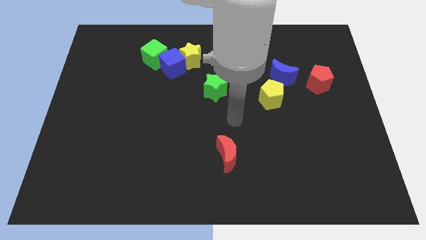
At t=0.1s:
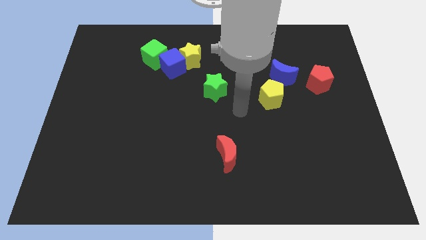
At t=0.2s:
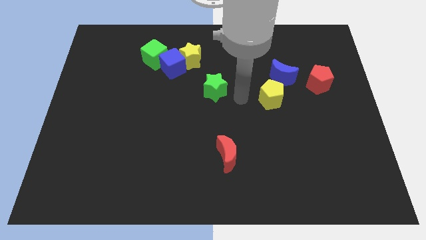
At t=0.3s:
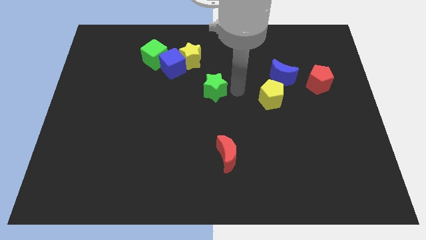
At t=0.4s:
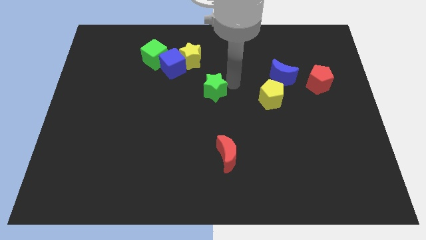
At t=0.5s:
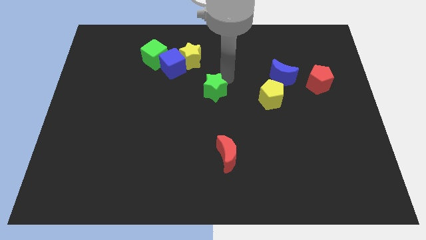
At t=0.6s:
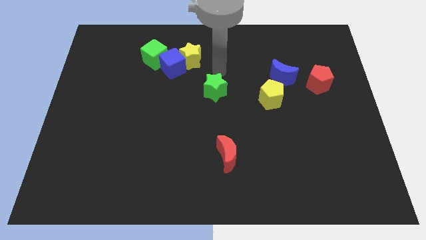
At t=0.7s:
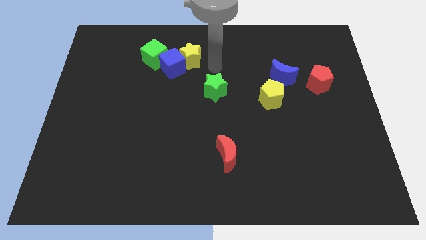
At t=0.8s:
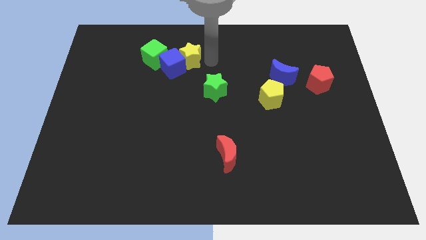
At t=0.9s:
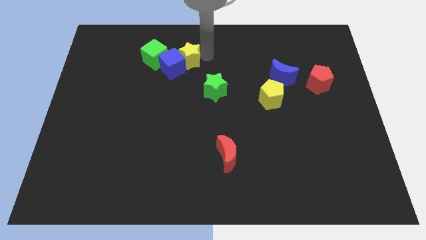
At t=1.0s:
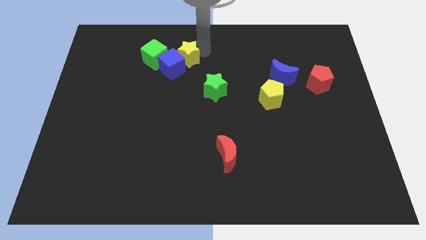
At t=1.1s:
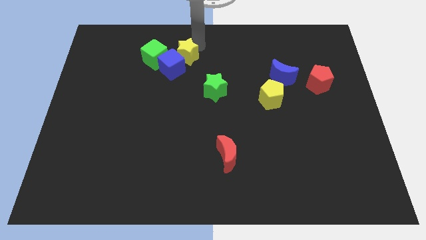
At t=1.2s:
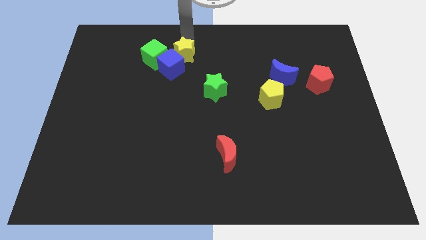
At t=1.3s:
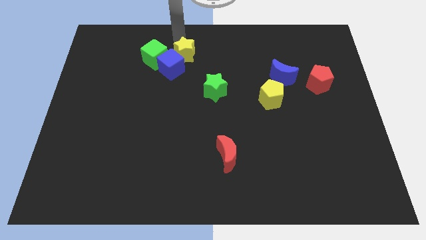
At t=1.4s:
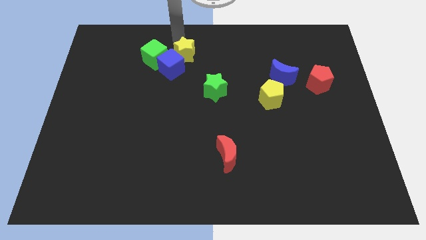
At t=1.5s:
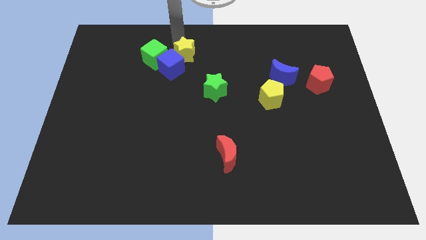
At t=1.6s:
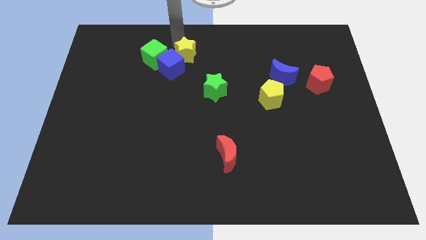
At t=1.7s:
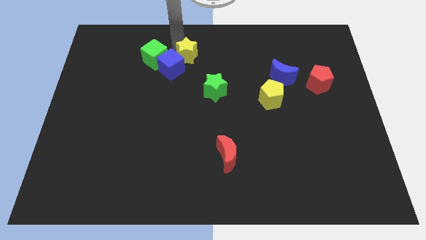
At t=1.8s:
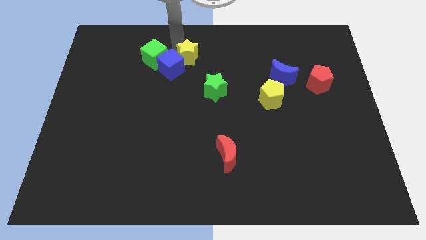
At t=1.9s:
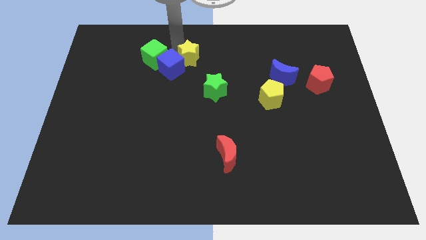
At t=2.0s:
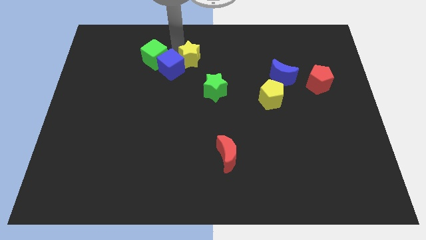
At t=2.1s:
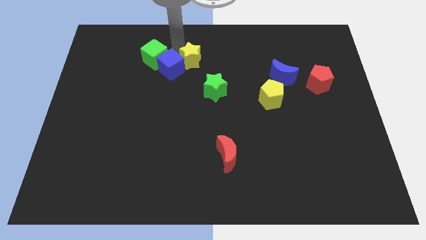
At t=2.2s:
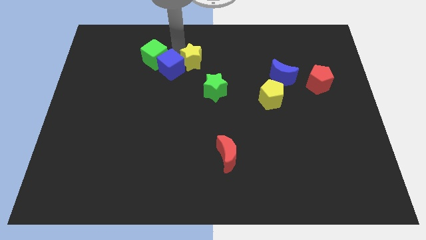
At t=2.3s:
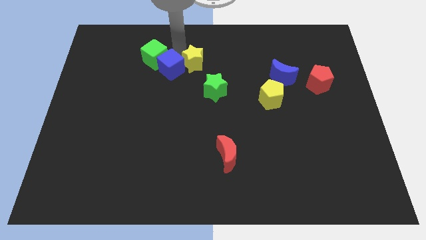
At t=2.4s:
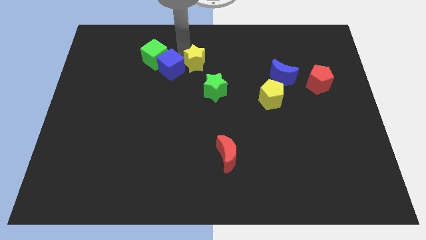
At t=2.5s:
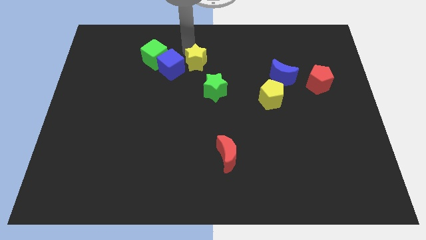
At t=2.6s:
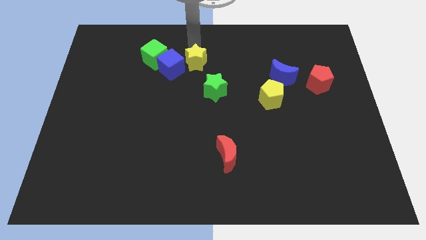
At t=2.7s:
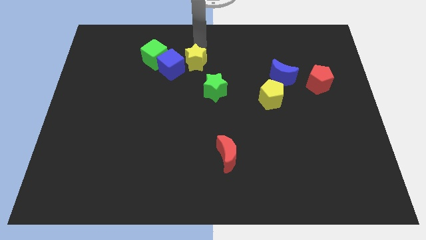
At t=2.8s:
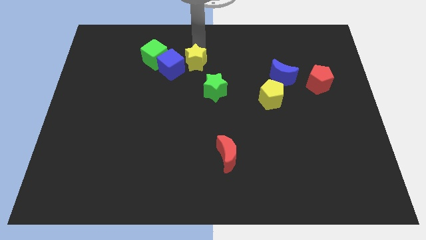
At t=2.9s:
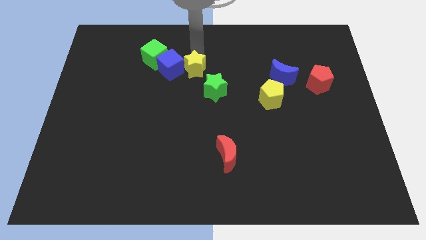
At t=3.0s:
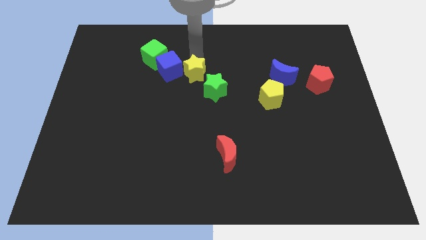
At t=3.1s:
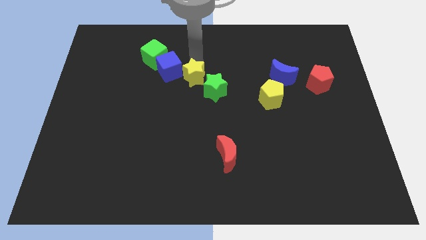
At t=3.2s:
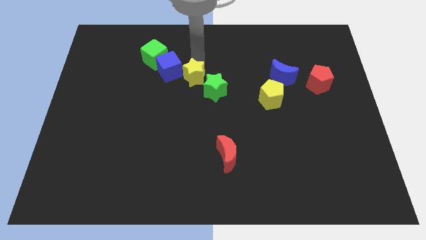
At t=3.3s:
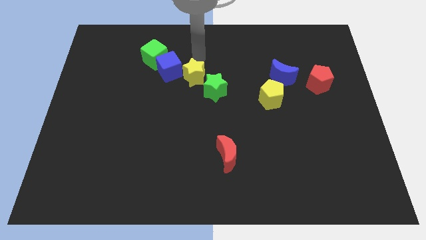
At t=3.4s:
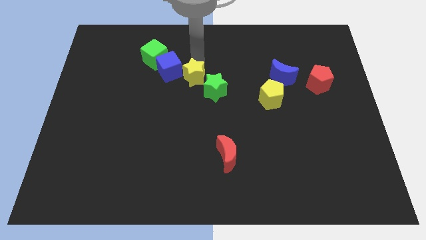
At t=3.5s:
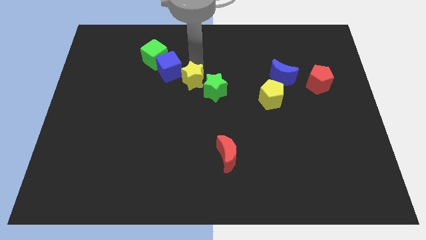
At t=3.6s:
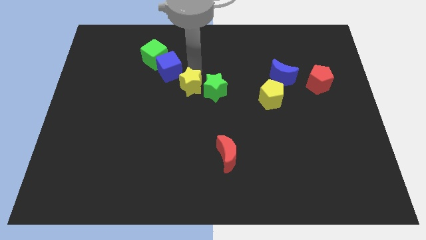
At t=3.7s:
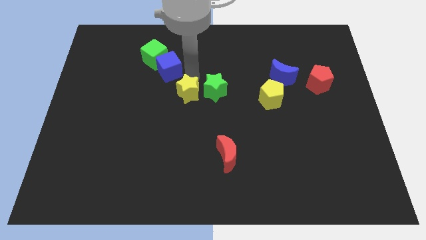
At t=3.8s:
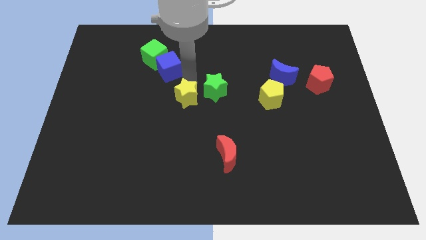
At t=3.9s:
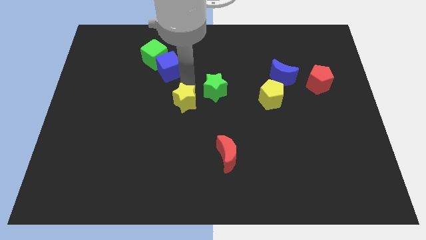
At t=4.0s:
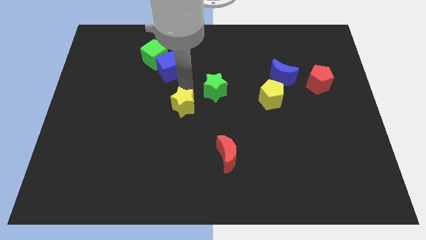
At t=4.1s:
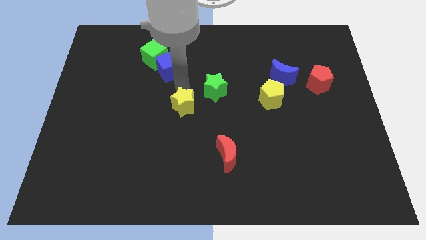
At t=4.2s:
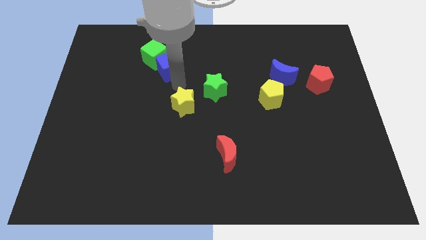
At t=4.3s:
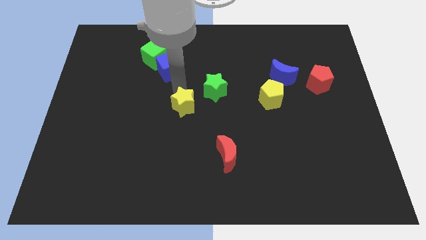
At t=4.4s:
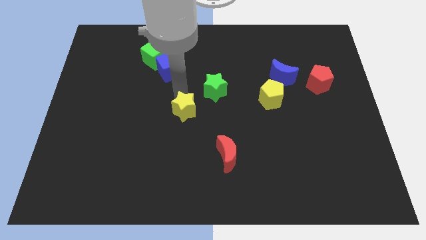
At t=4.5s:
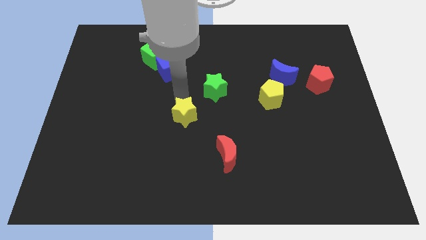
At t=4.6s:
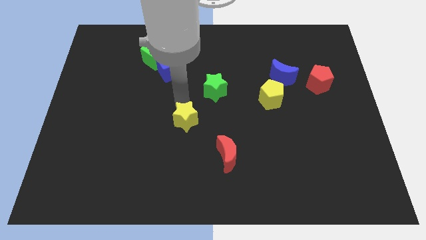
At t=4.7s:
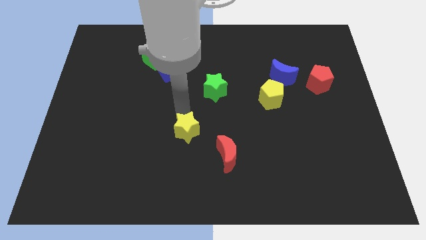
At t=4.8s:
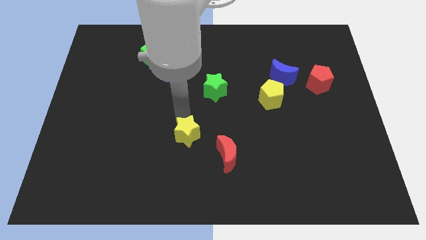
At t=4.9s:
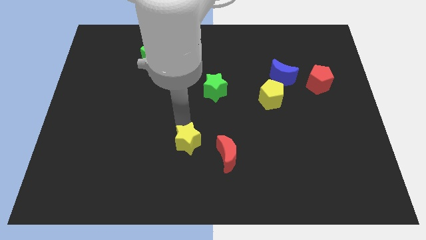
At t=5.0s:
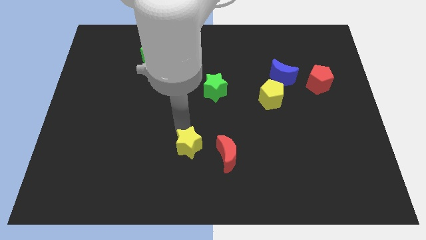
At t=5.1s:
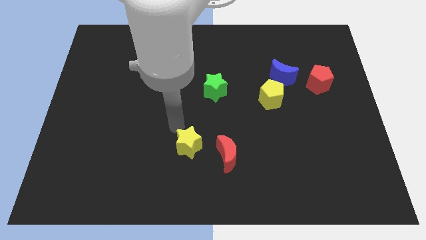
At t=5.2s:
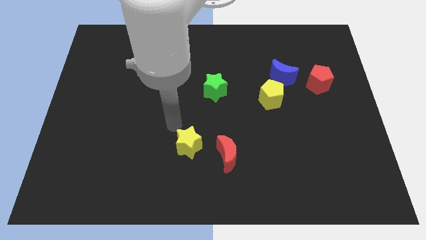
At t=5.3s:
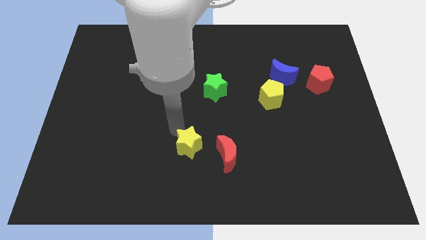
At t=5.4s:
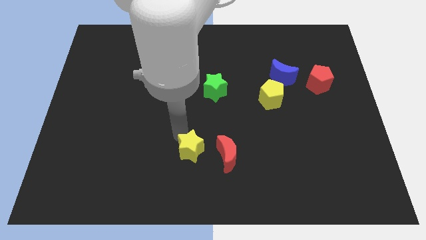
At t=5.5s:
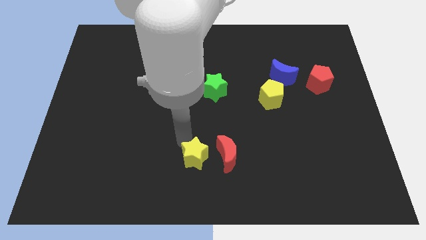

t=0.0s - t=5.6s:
put the yellow star to the bottom

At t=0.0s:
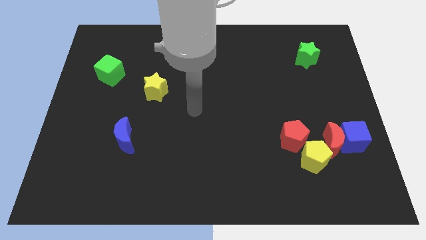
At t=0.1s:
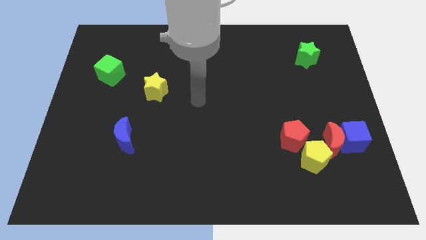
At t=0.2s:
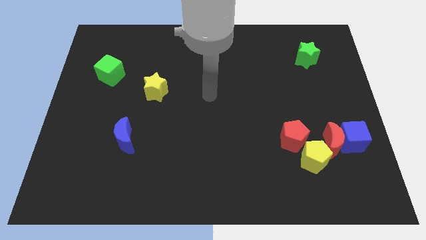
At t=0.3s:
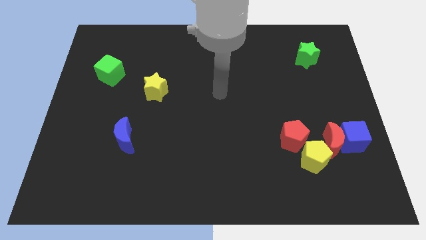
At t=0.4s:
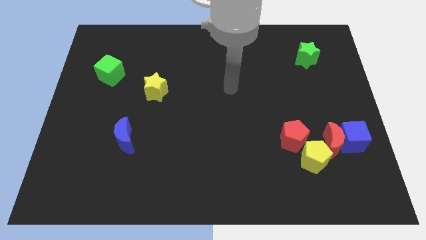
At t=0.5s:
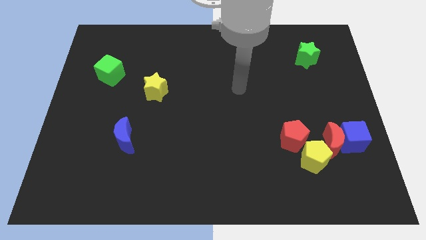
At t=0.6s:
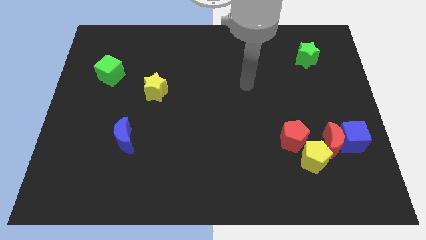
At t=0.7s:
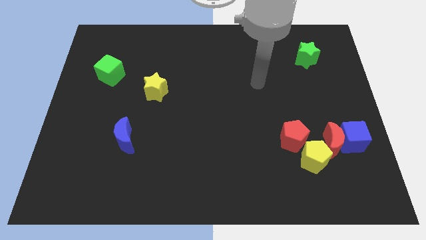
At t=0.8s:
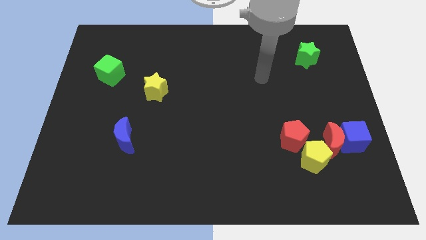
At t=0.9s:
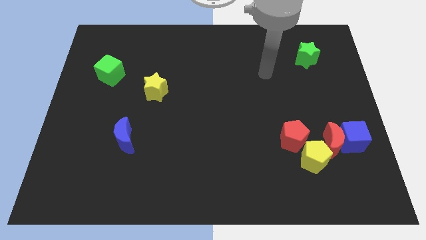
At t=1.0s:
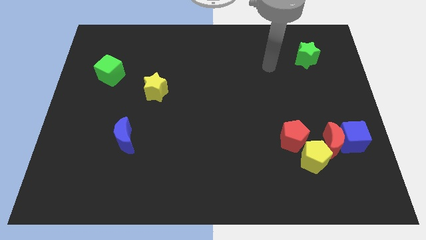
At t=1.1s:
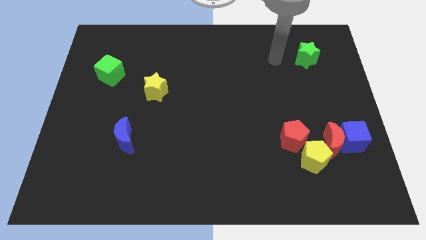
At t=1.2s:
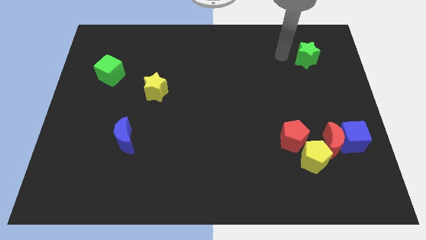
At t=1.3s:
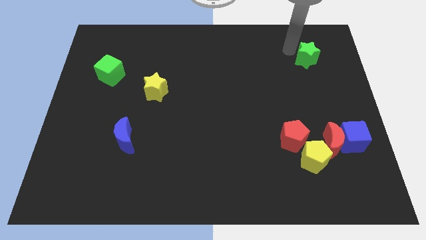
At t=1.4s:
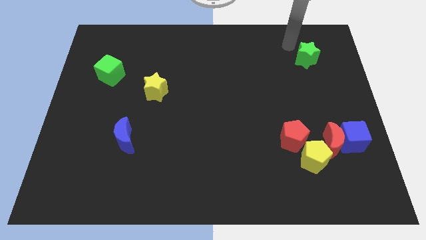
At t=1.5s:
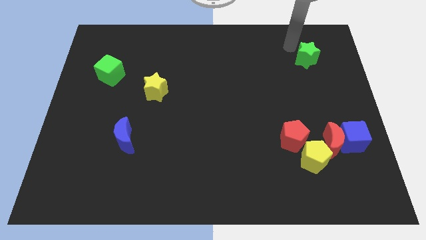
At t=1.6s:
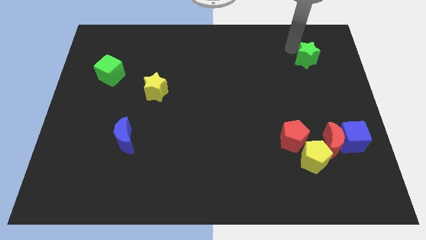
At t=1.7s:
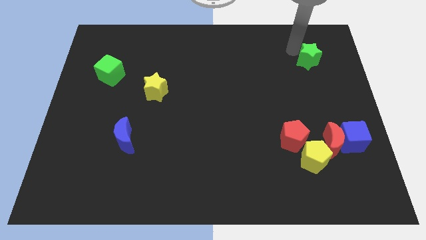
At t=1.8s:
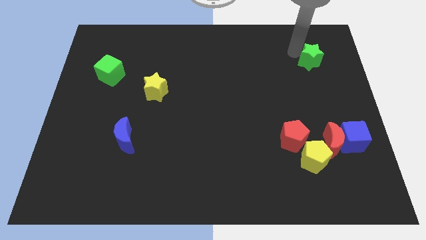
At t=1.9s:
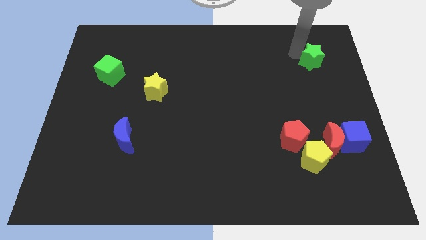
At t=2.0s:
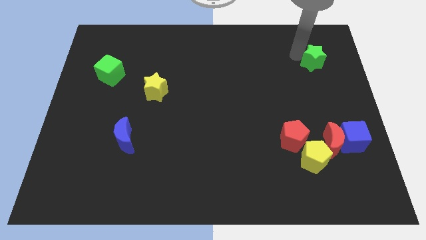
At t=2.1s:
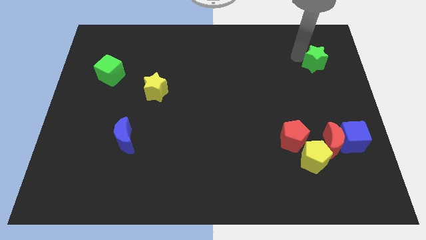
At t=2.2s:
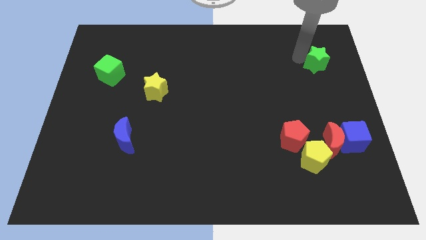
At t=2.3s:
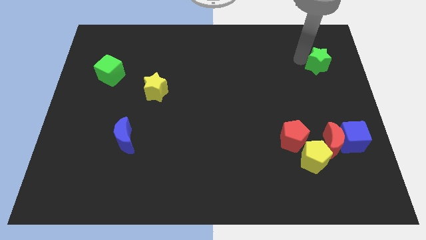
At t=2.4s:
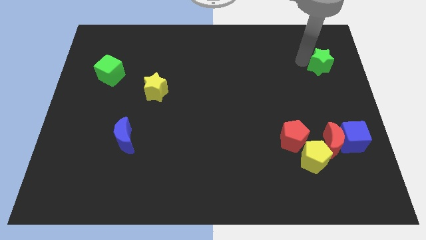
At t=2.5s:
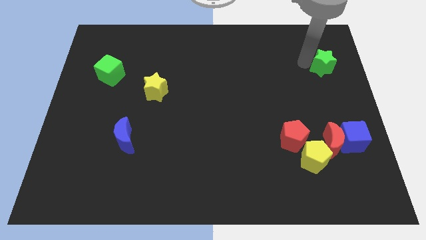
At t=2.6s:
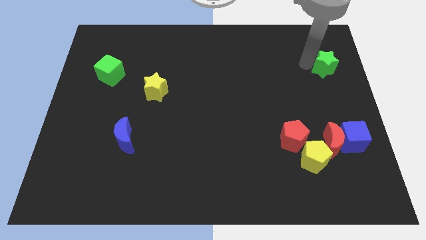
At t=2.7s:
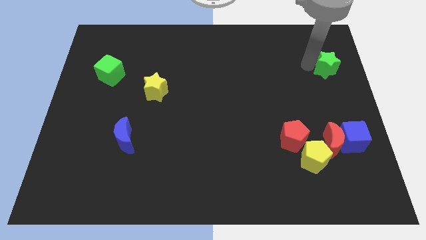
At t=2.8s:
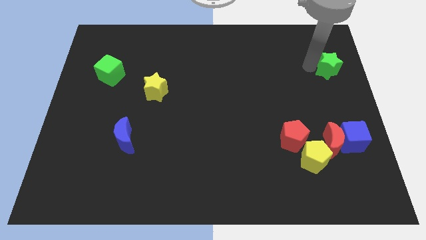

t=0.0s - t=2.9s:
push the green star to the right side of the board
